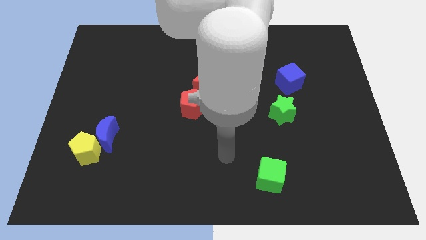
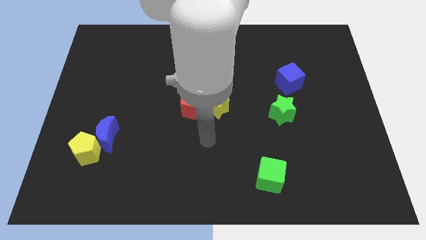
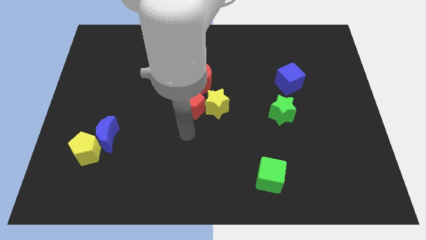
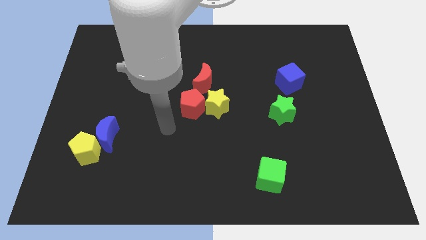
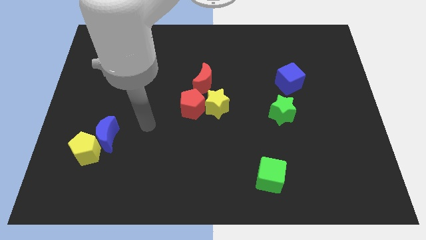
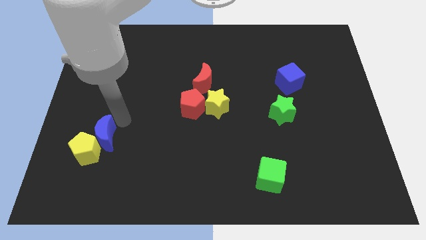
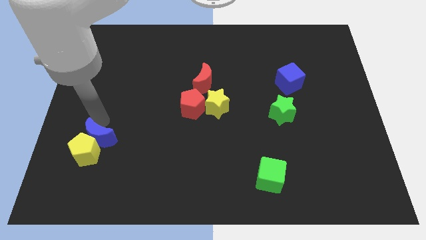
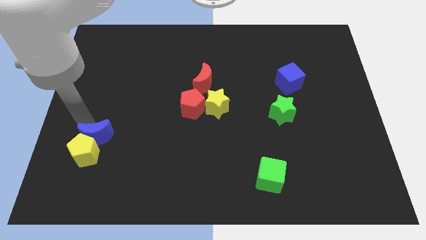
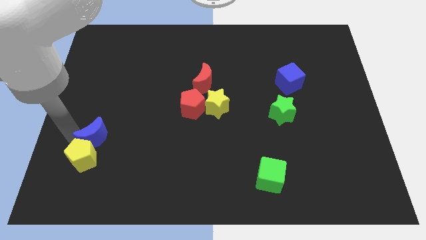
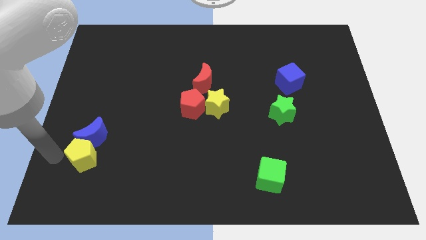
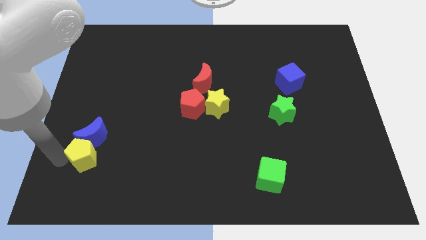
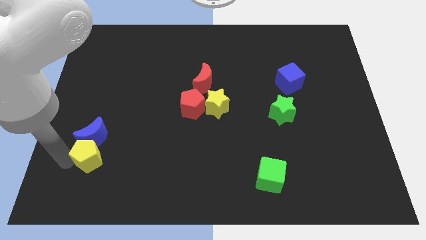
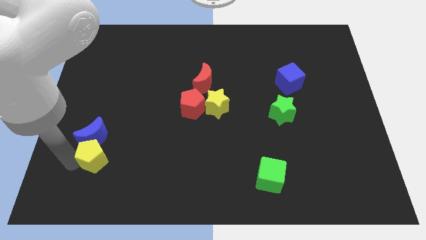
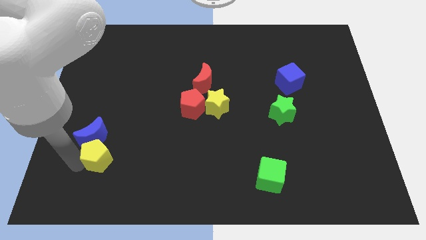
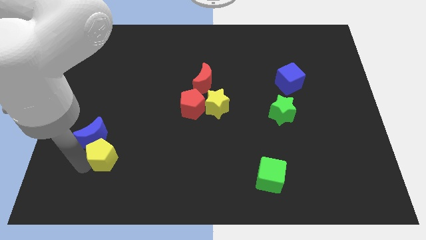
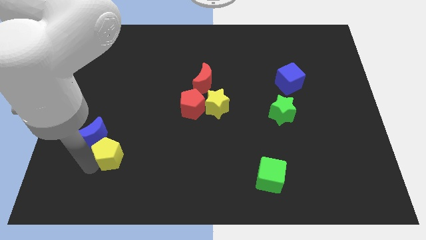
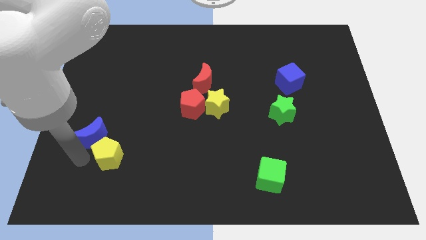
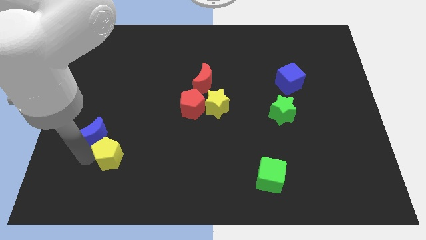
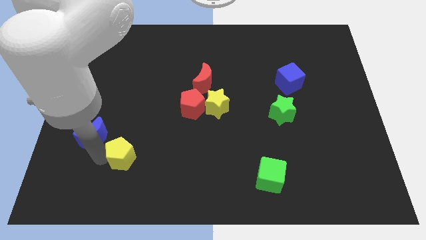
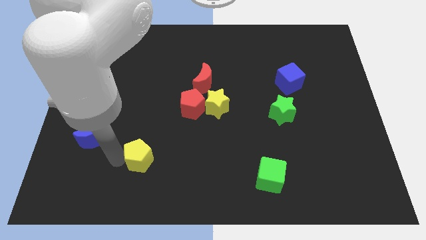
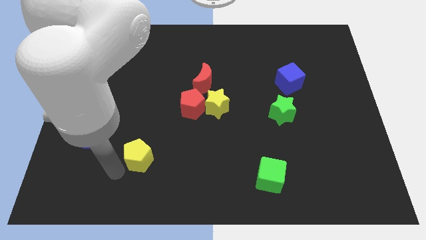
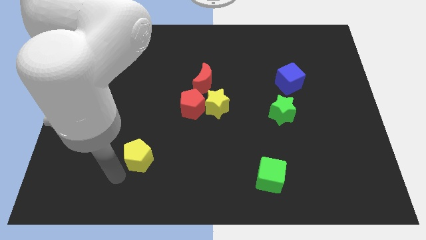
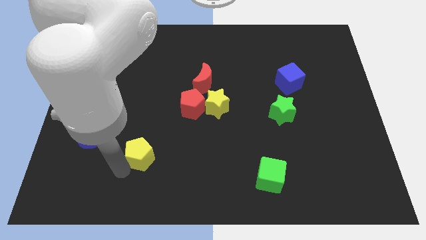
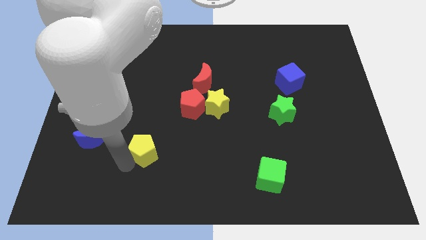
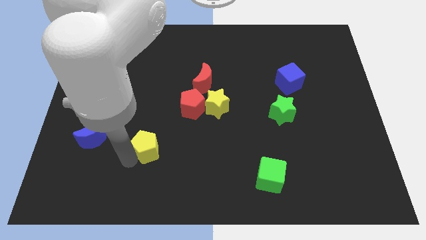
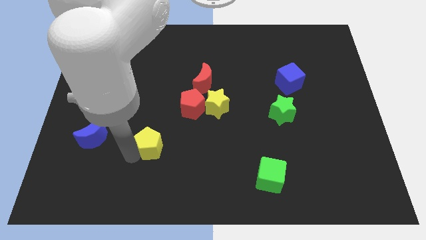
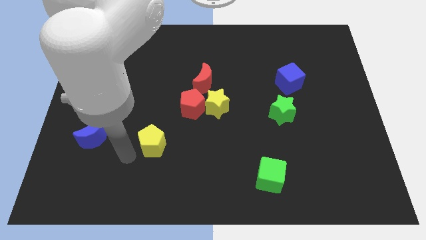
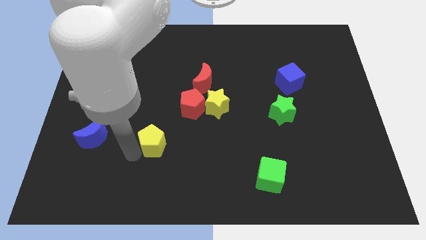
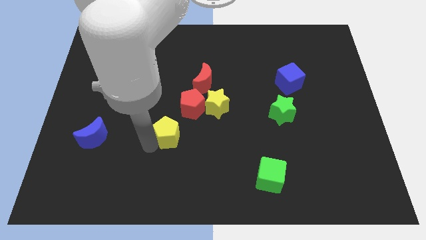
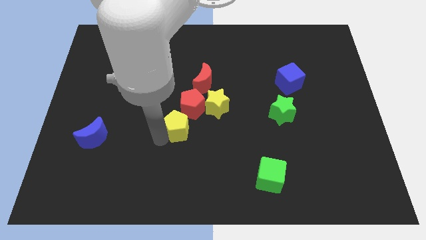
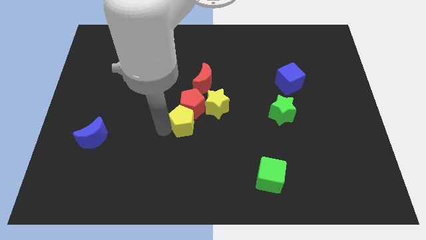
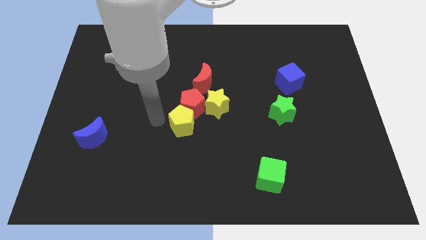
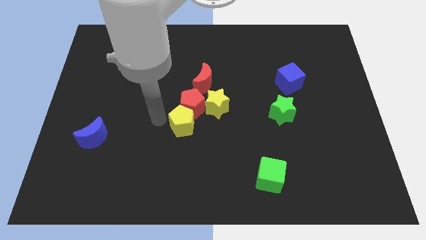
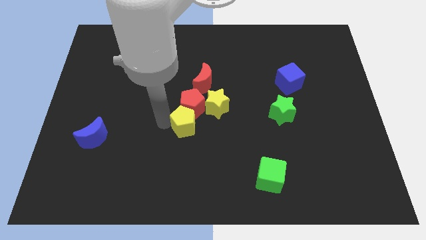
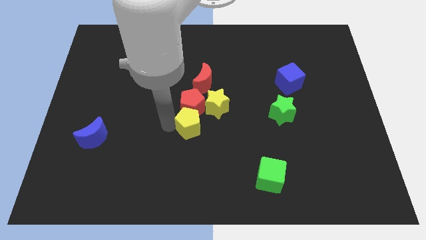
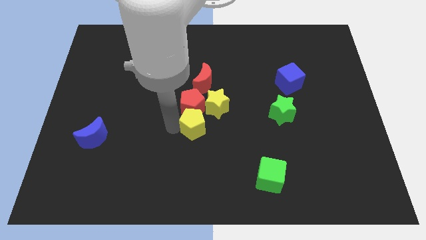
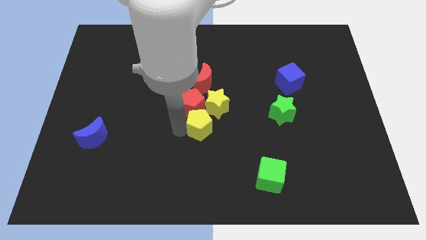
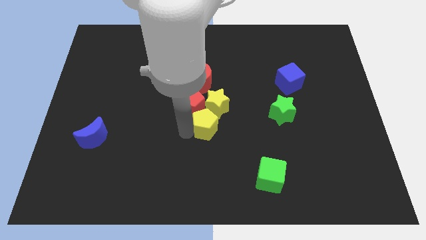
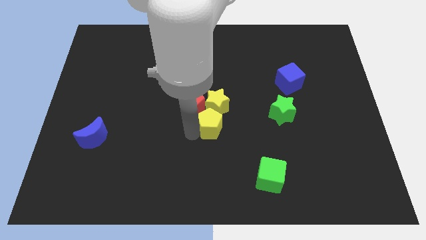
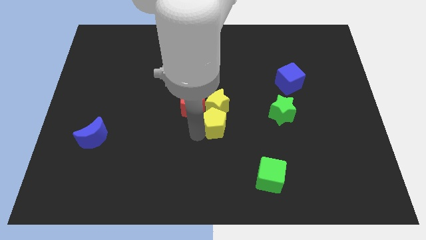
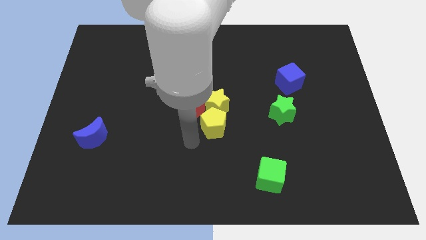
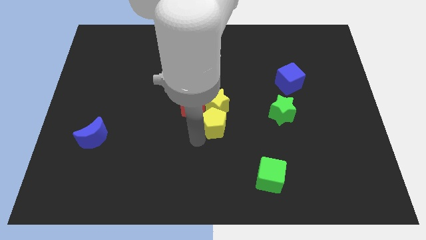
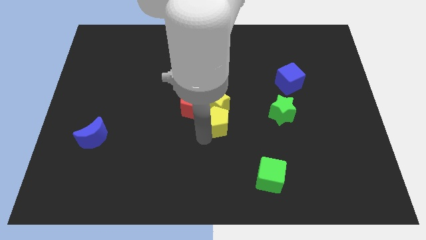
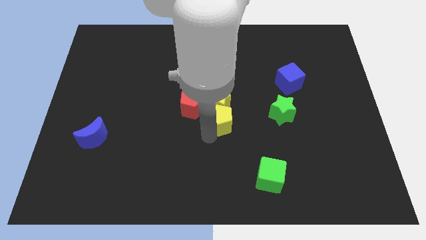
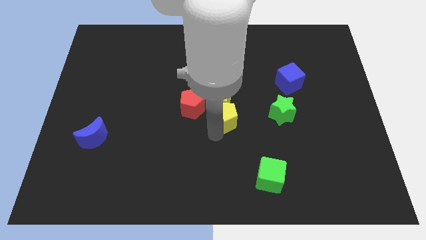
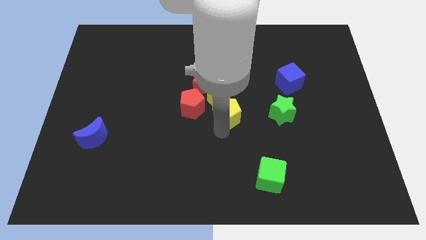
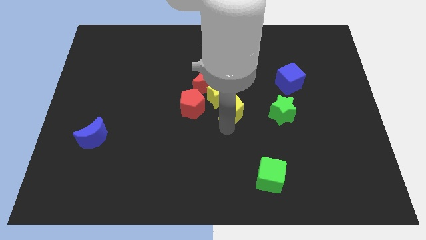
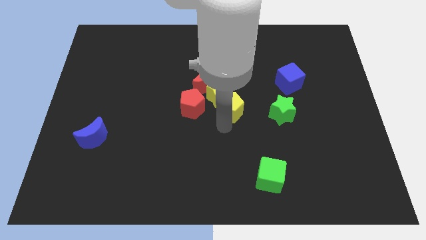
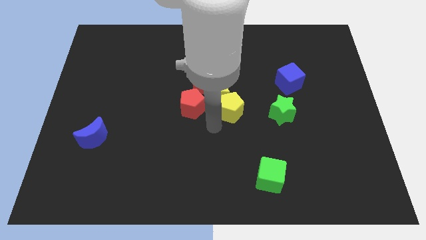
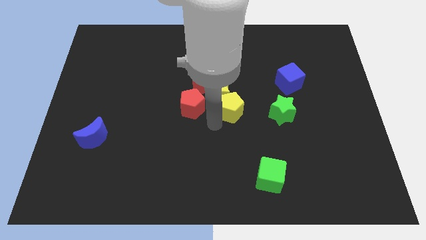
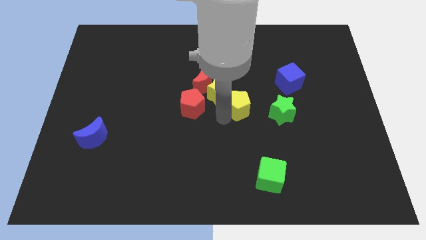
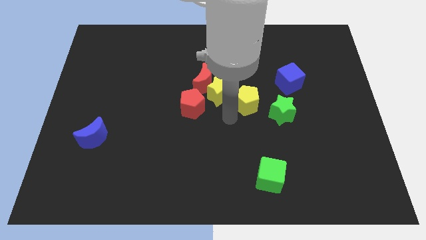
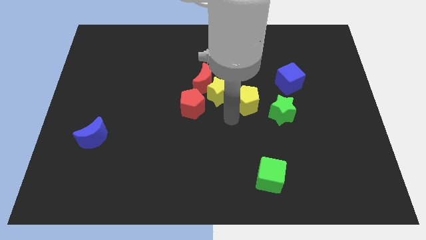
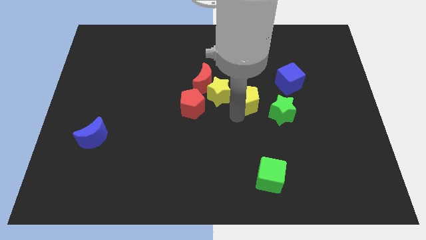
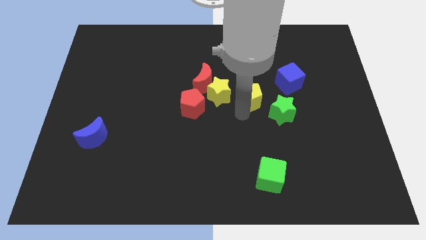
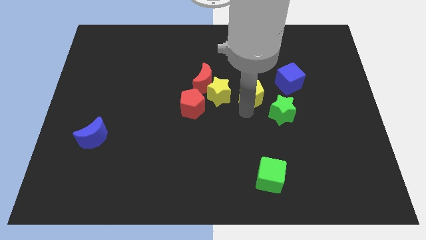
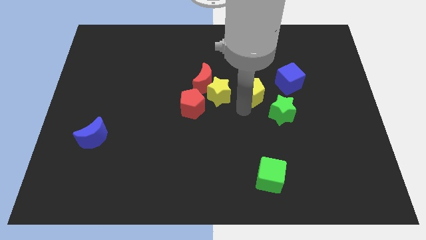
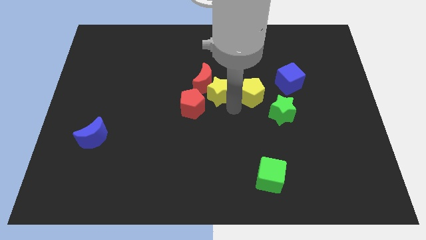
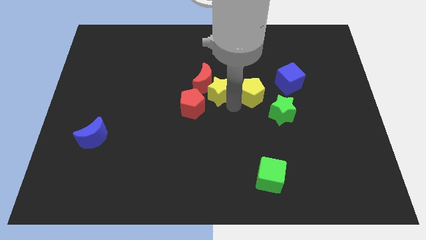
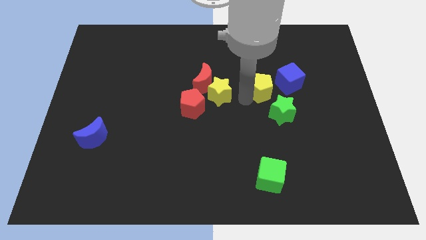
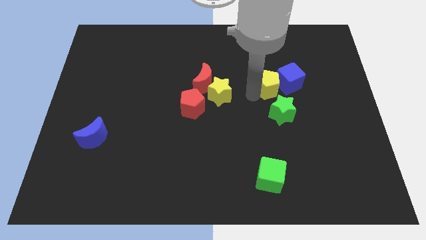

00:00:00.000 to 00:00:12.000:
push the yellow pentagon next to the blue cube

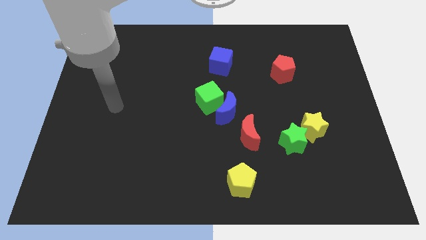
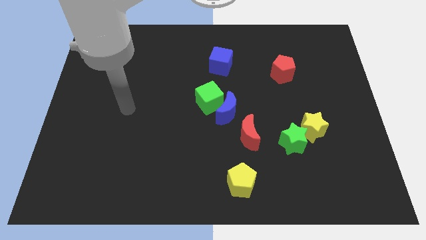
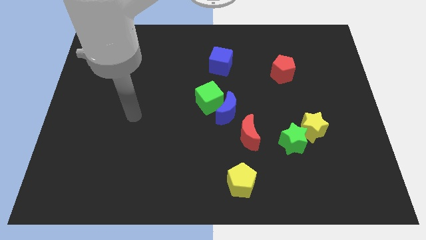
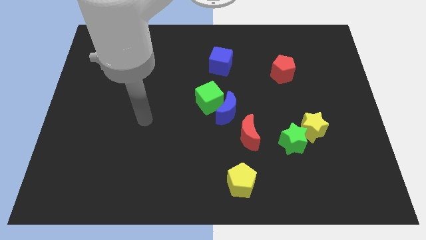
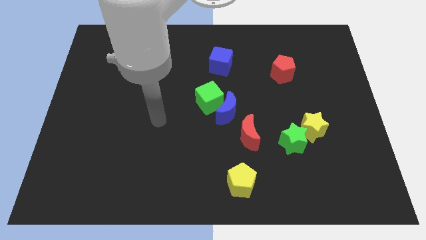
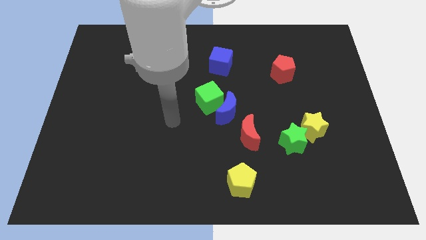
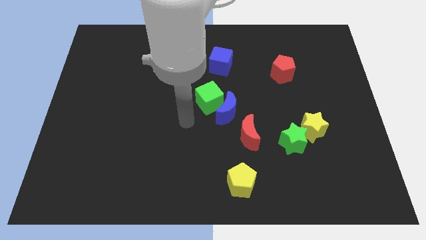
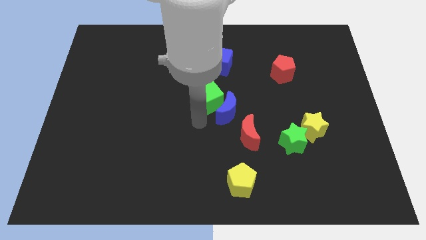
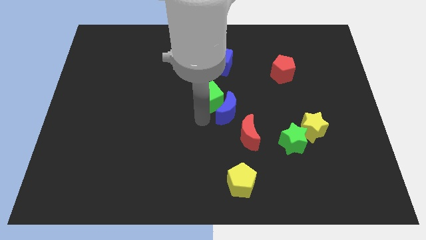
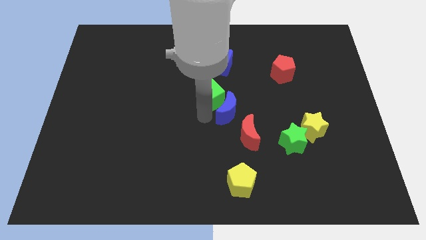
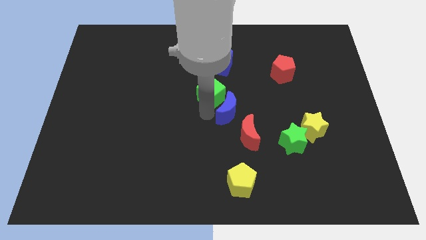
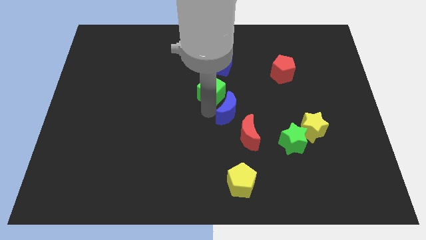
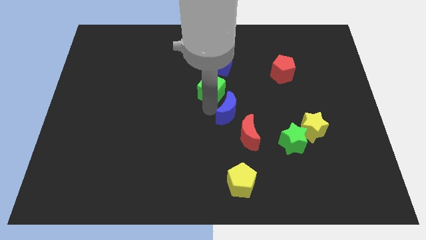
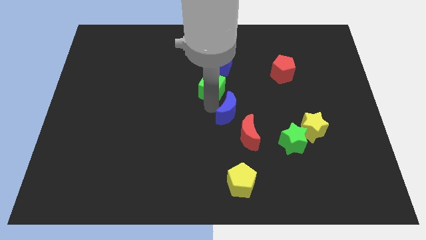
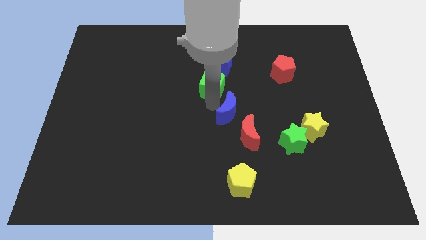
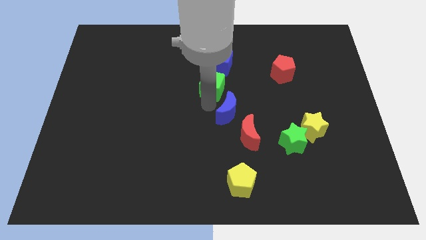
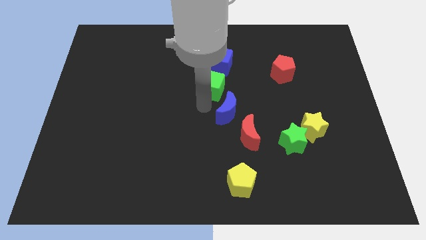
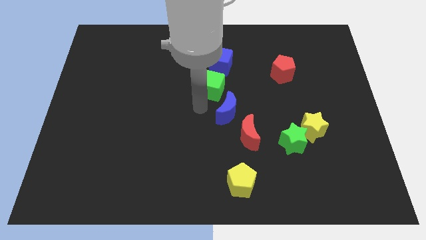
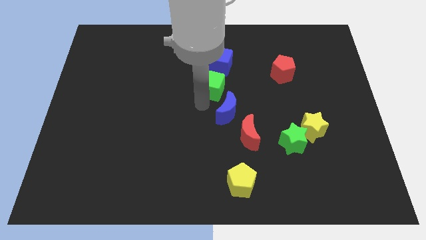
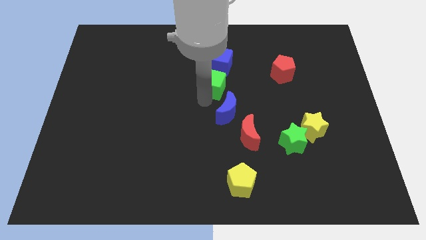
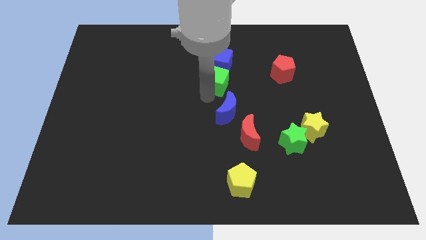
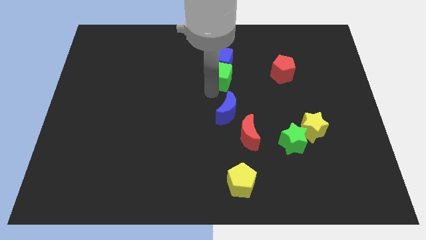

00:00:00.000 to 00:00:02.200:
move the green cube next to the blue cube

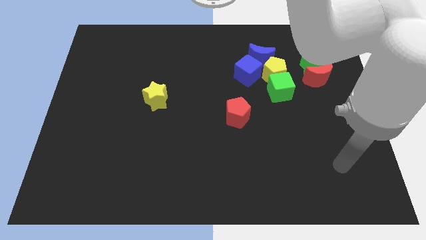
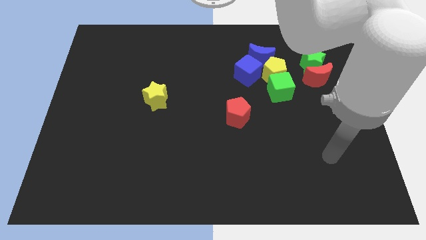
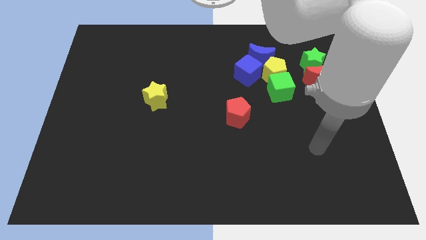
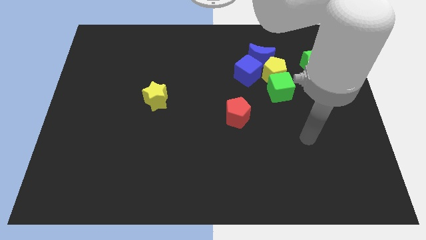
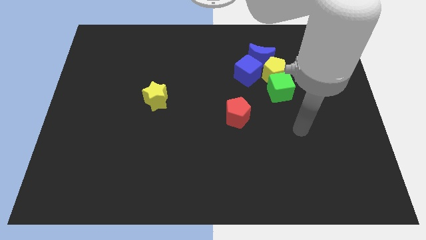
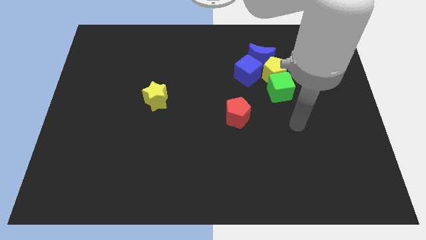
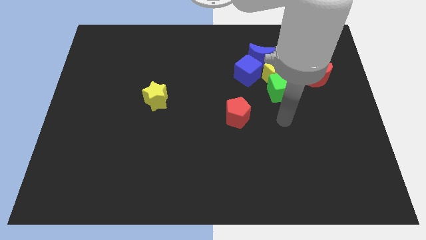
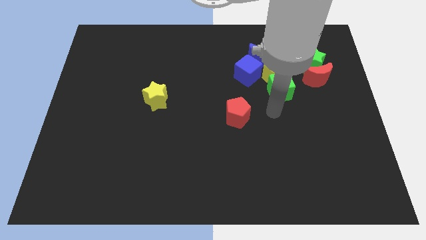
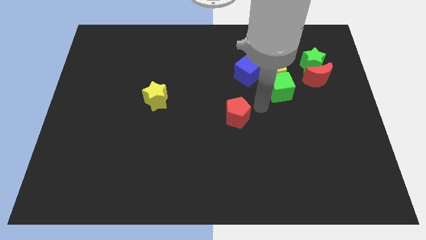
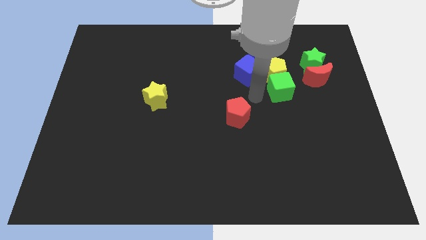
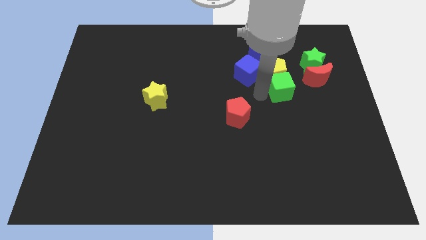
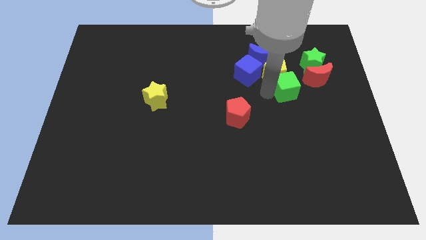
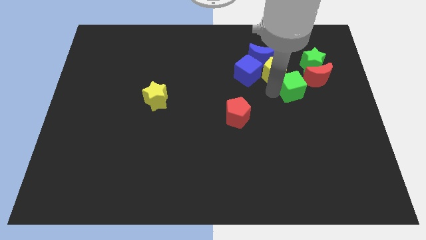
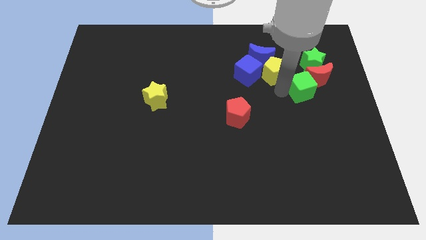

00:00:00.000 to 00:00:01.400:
move the green cube to the red moon
